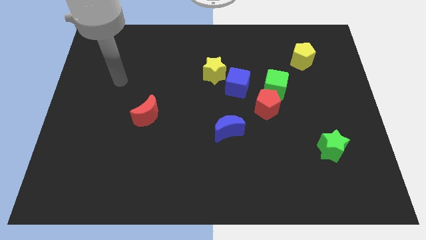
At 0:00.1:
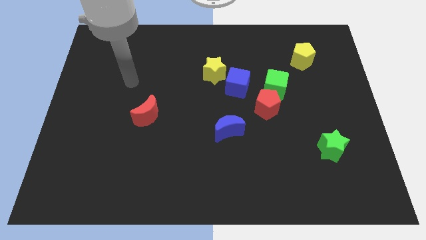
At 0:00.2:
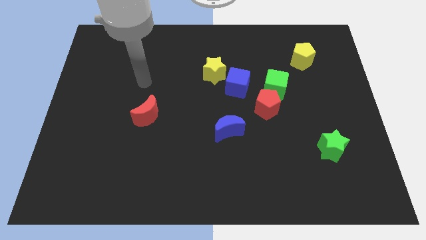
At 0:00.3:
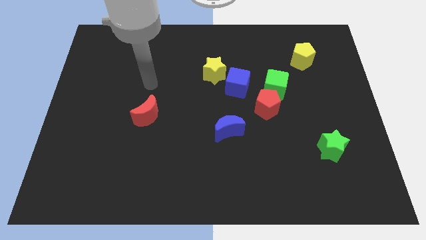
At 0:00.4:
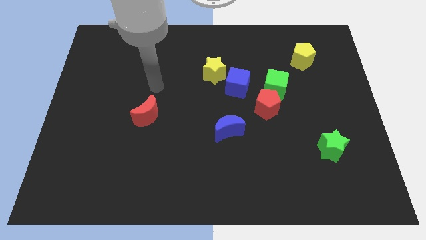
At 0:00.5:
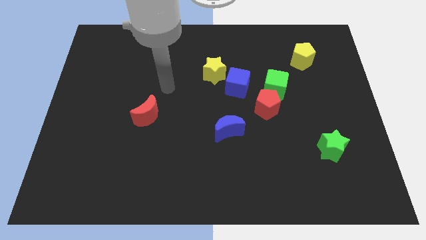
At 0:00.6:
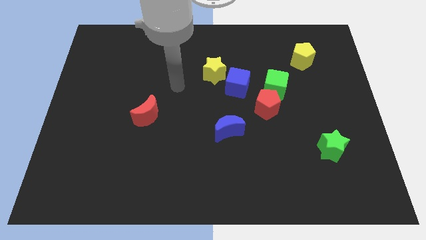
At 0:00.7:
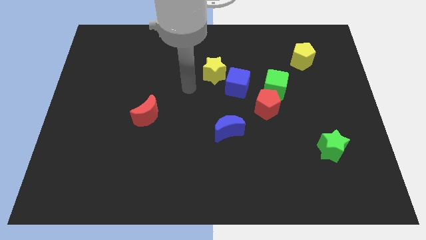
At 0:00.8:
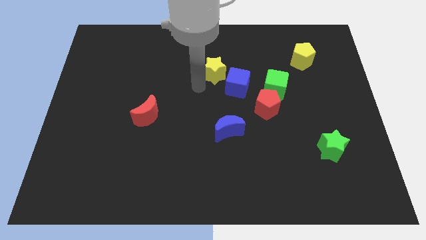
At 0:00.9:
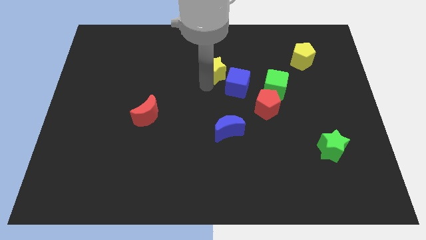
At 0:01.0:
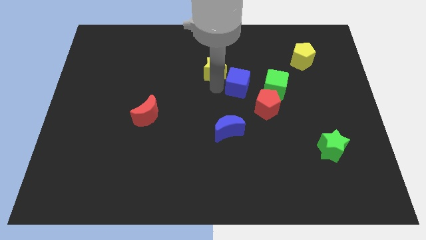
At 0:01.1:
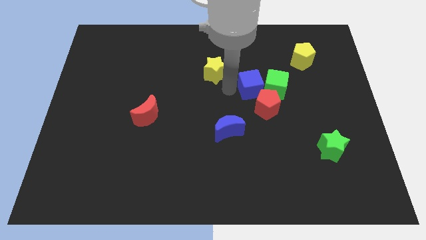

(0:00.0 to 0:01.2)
pull the yellow star apart from the blue cube

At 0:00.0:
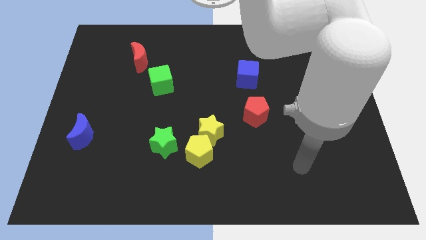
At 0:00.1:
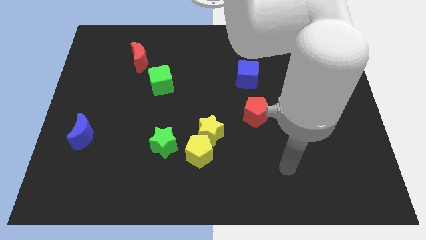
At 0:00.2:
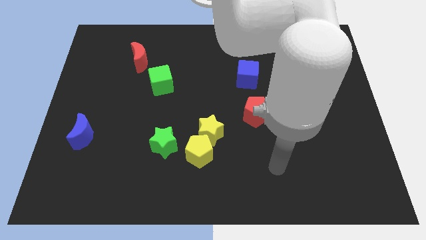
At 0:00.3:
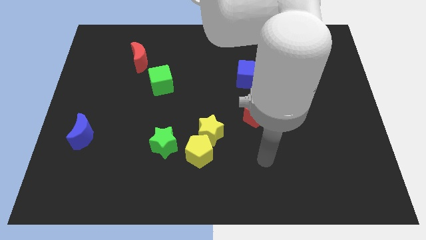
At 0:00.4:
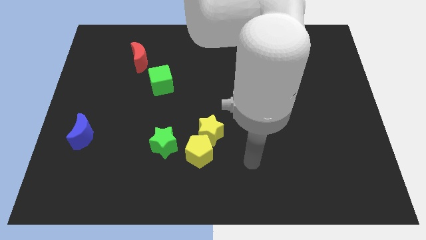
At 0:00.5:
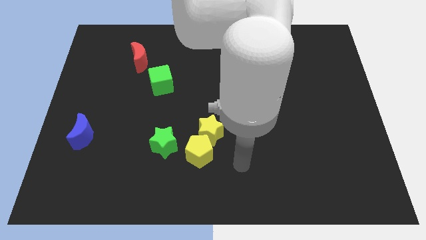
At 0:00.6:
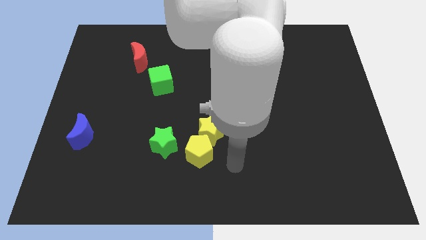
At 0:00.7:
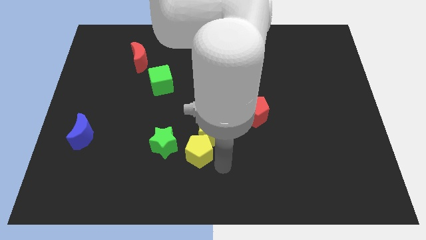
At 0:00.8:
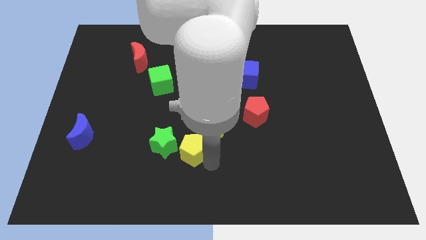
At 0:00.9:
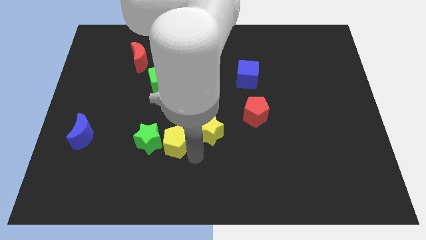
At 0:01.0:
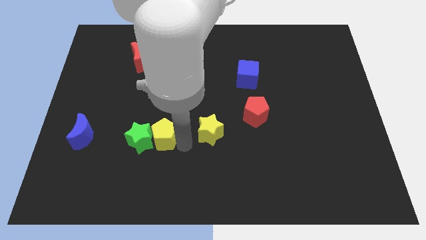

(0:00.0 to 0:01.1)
move the yellow star away from the yellow pentagon

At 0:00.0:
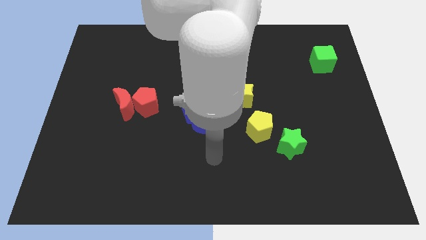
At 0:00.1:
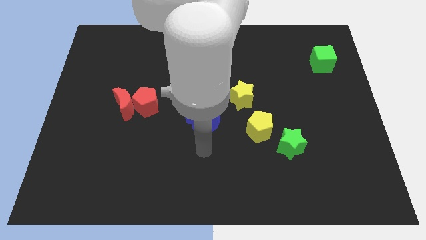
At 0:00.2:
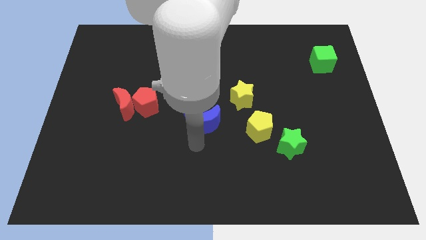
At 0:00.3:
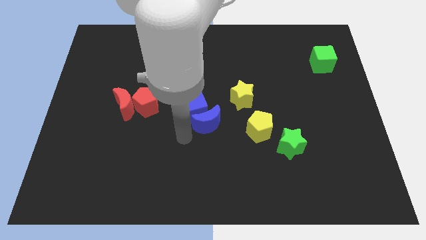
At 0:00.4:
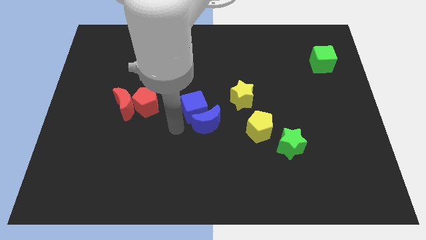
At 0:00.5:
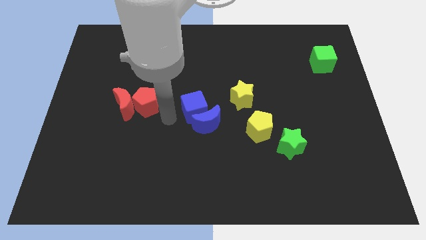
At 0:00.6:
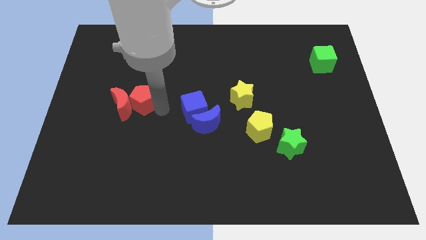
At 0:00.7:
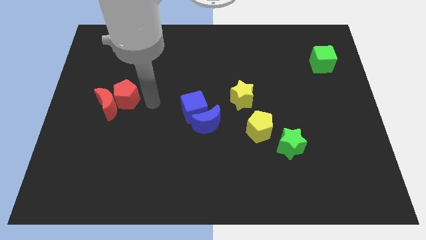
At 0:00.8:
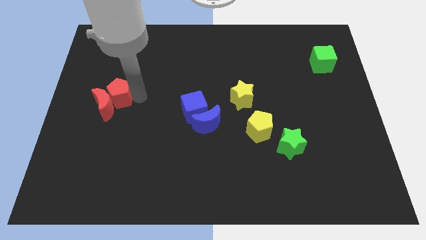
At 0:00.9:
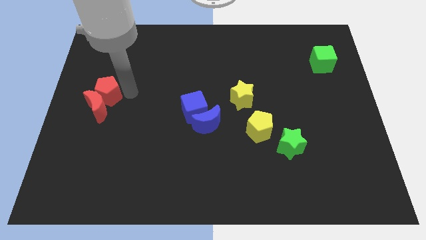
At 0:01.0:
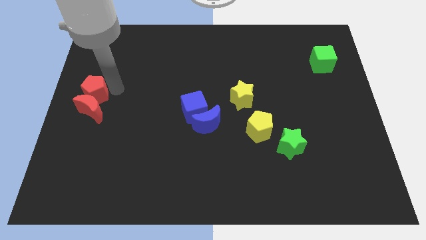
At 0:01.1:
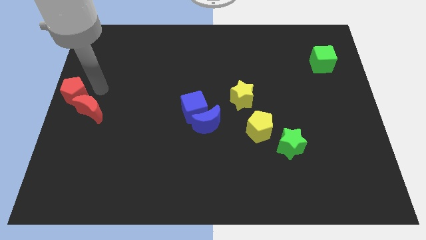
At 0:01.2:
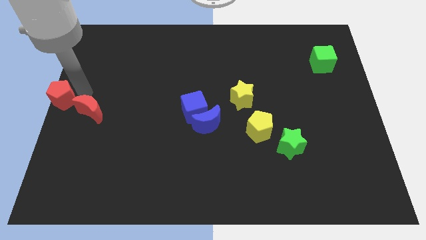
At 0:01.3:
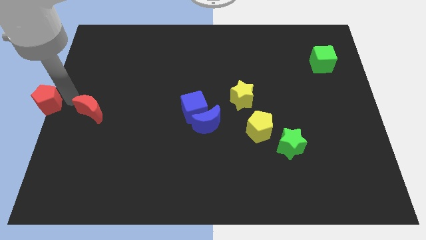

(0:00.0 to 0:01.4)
pull the red moon apart from the red pentagon

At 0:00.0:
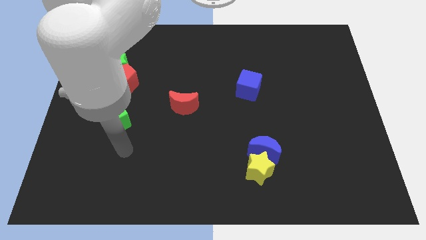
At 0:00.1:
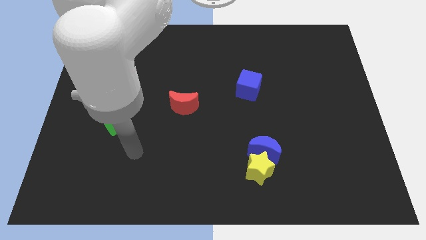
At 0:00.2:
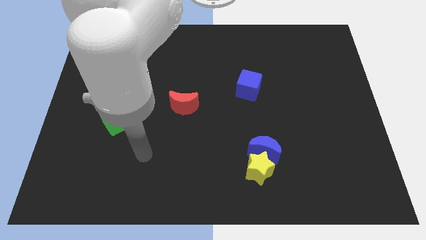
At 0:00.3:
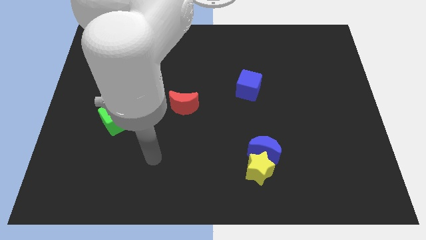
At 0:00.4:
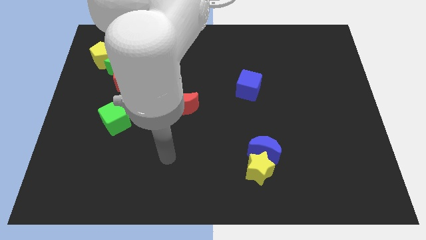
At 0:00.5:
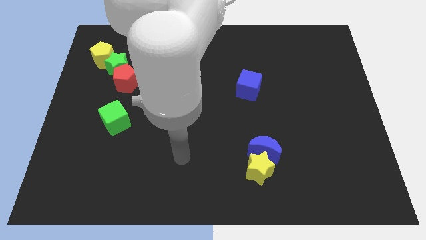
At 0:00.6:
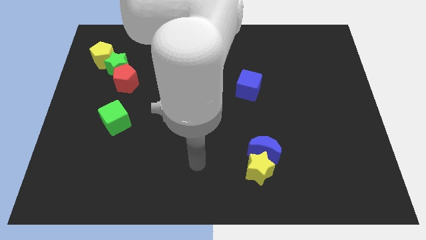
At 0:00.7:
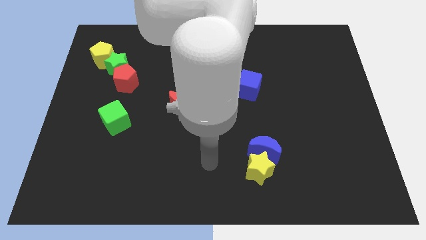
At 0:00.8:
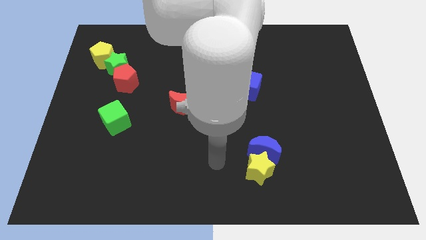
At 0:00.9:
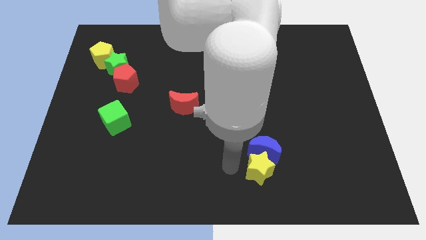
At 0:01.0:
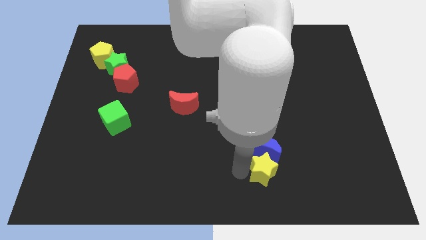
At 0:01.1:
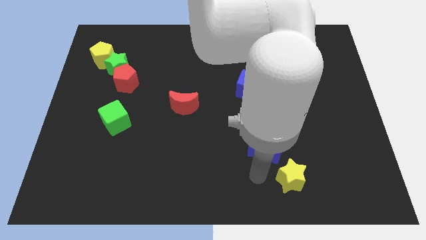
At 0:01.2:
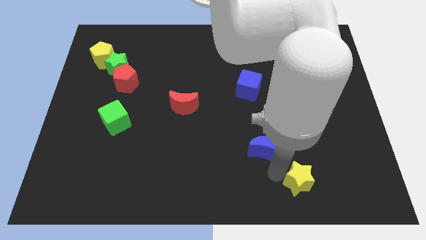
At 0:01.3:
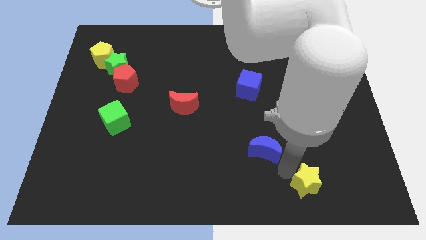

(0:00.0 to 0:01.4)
move the blue moon away from the yellow star

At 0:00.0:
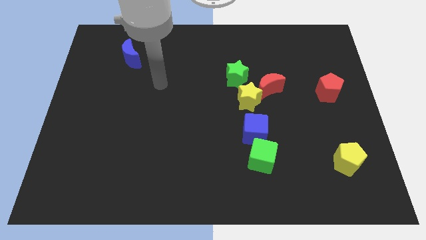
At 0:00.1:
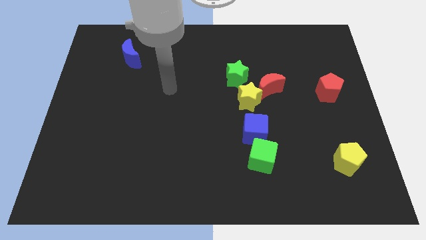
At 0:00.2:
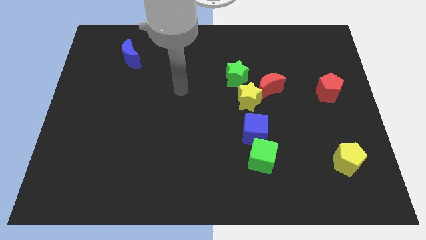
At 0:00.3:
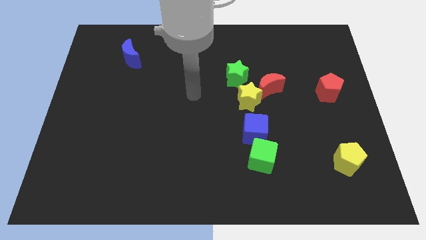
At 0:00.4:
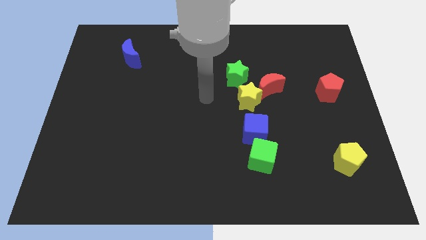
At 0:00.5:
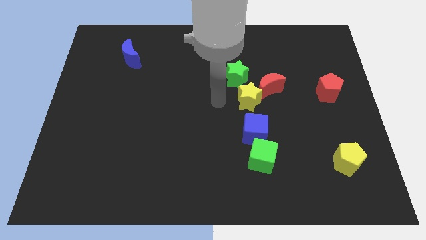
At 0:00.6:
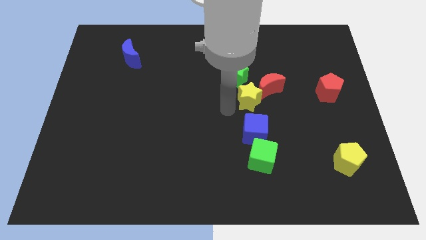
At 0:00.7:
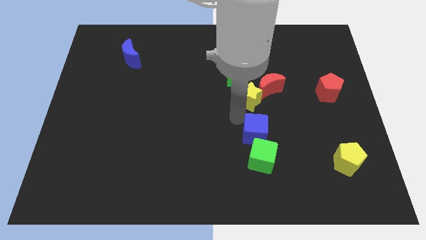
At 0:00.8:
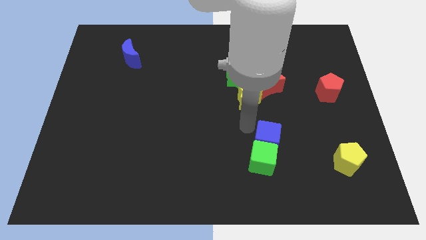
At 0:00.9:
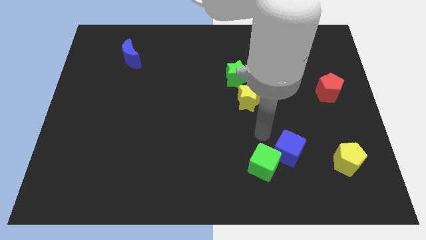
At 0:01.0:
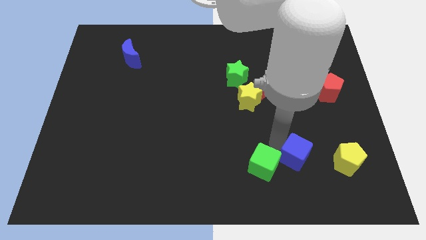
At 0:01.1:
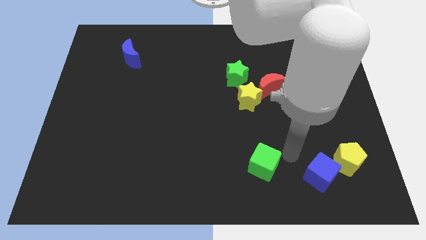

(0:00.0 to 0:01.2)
move the green cube away from the blue cube

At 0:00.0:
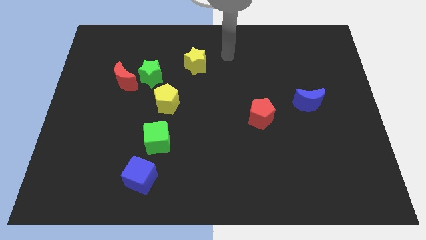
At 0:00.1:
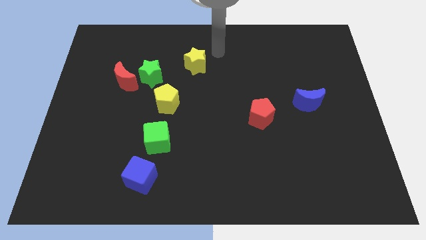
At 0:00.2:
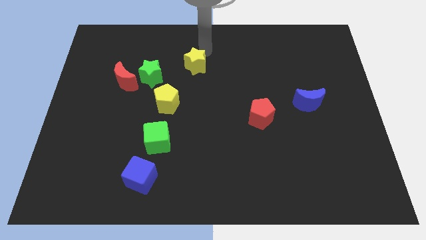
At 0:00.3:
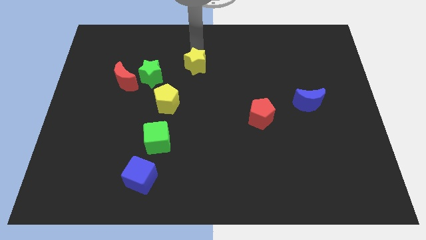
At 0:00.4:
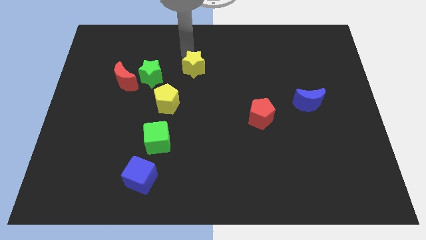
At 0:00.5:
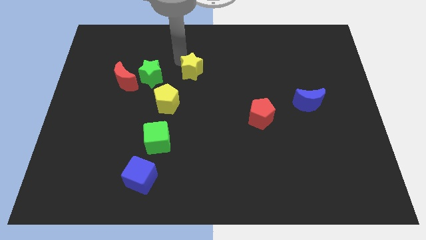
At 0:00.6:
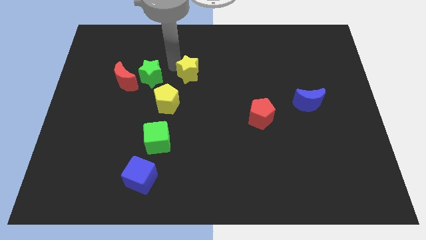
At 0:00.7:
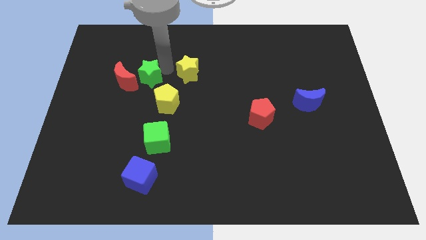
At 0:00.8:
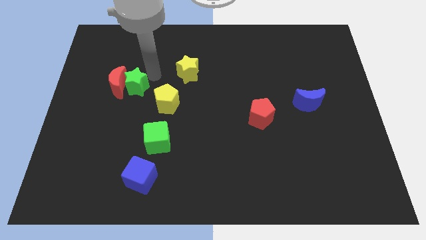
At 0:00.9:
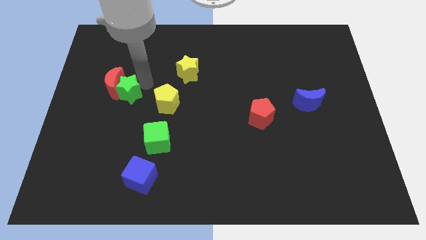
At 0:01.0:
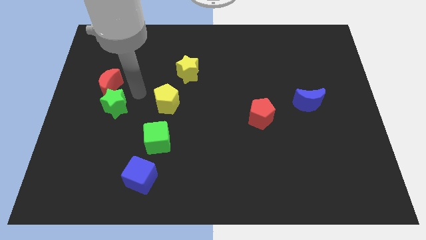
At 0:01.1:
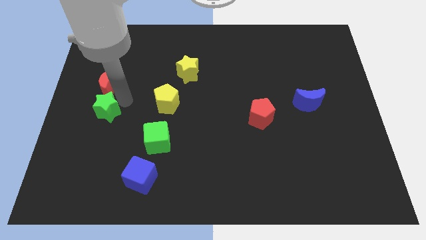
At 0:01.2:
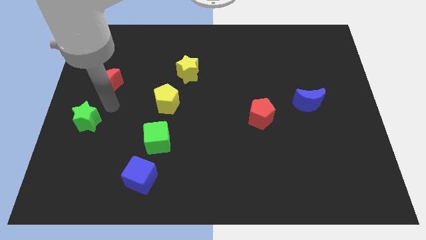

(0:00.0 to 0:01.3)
pull the red moon apart from the green star

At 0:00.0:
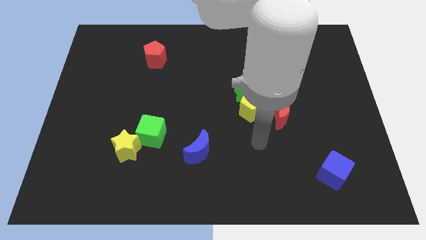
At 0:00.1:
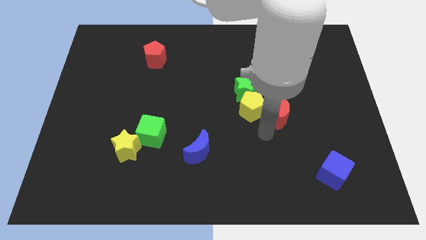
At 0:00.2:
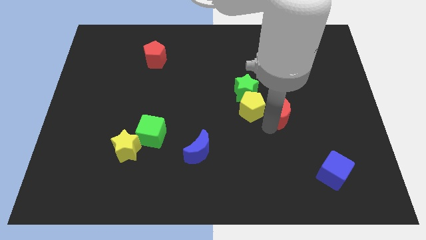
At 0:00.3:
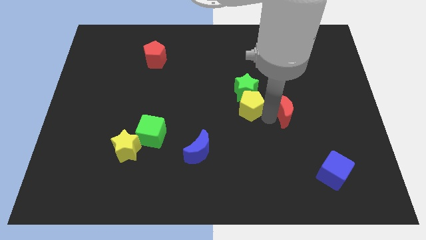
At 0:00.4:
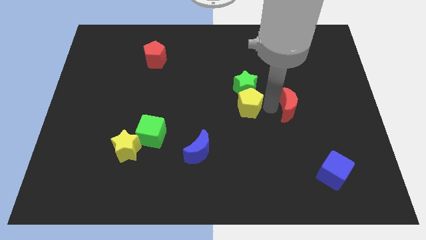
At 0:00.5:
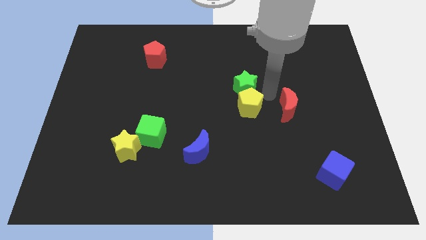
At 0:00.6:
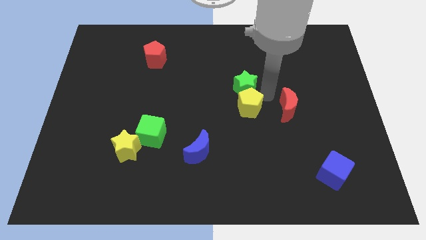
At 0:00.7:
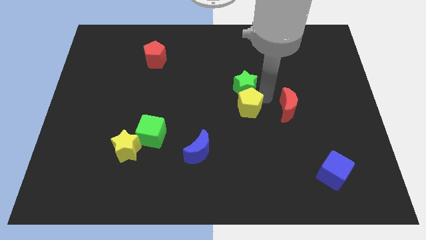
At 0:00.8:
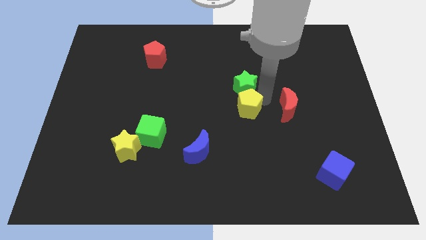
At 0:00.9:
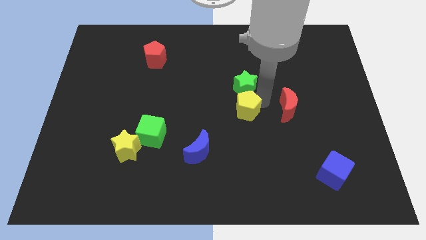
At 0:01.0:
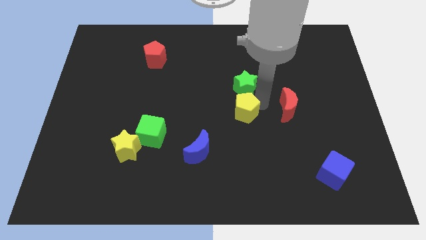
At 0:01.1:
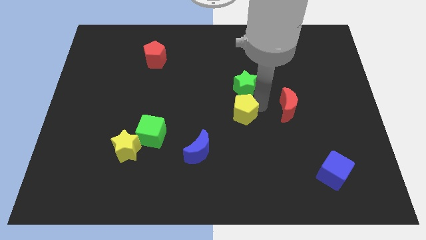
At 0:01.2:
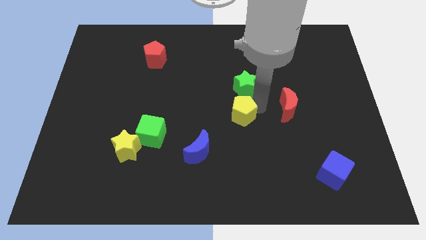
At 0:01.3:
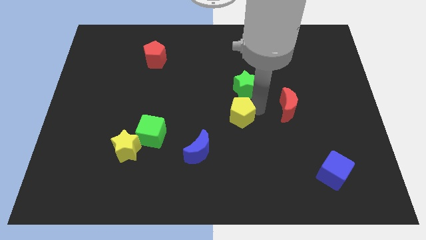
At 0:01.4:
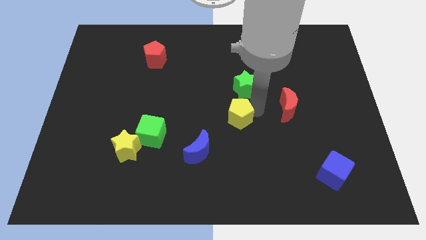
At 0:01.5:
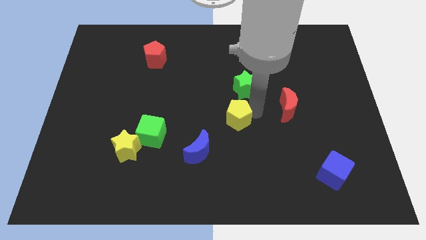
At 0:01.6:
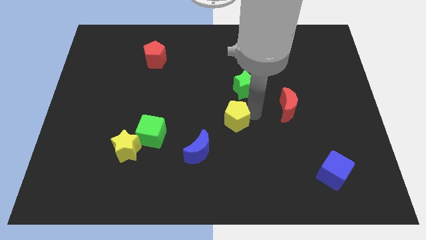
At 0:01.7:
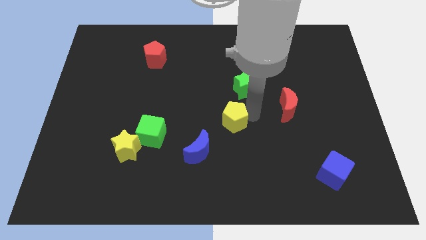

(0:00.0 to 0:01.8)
pull the yellow pentagon apart from the green star and red moon
